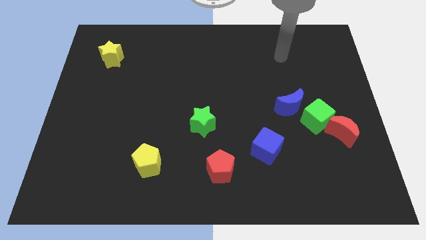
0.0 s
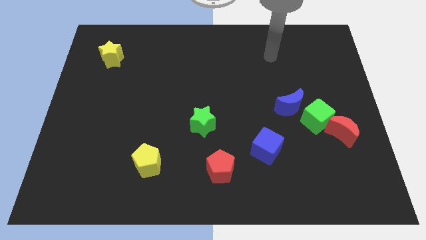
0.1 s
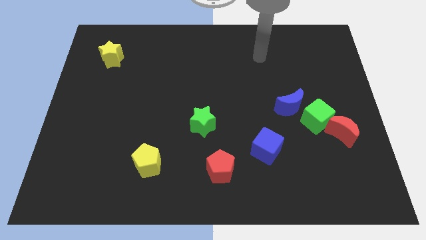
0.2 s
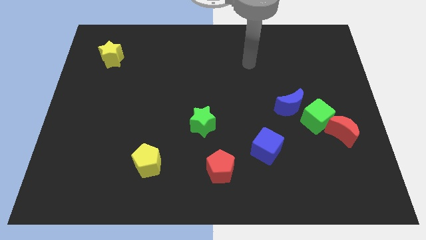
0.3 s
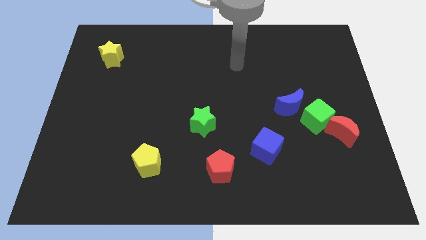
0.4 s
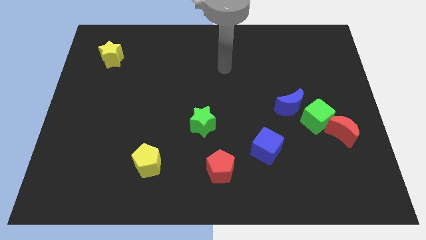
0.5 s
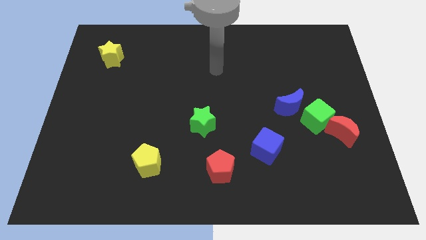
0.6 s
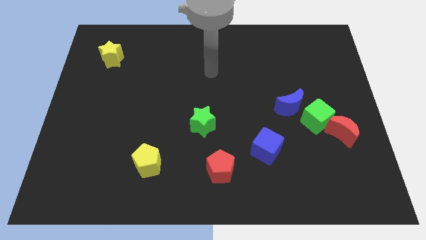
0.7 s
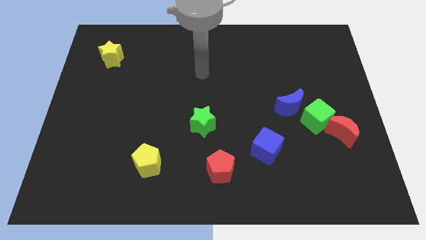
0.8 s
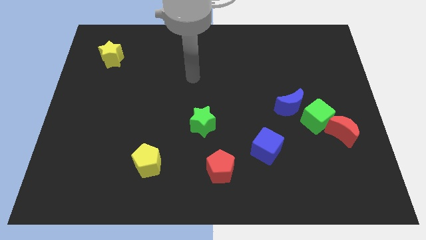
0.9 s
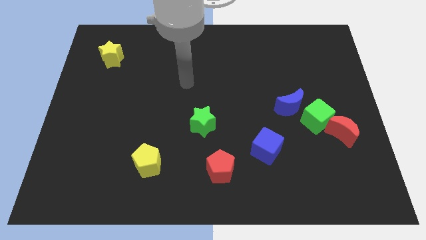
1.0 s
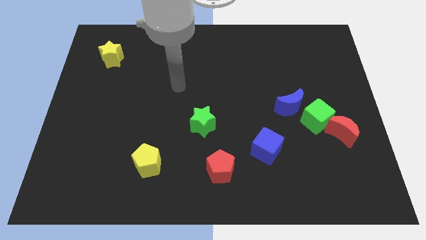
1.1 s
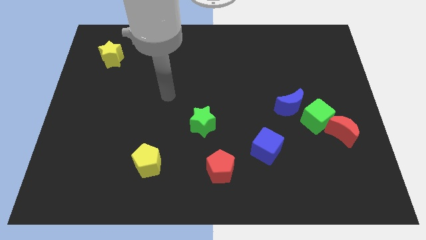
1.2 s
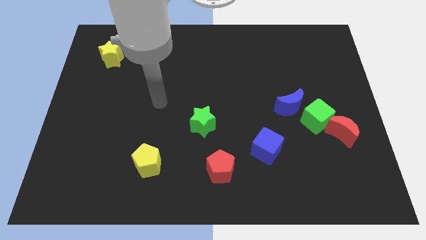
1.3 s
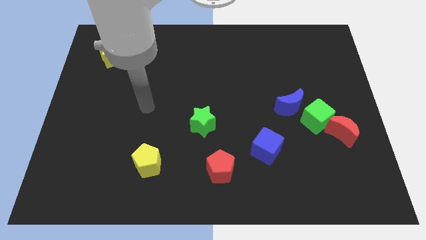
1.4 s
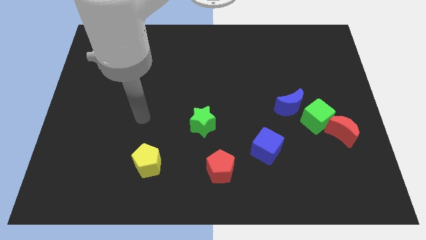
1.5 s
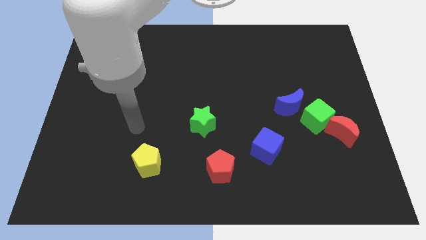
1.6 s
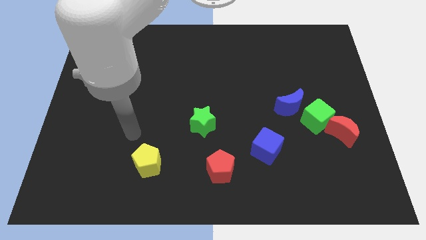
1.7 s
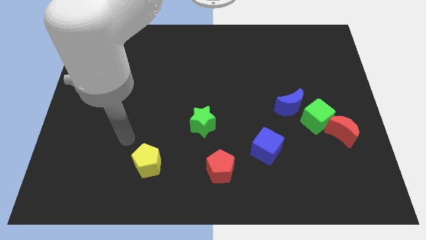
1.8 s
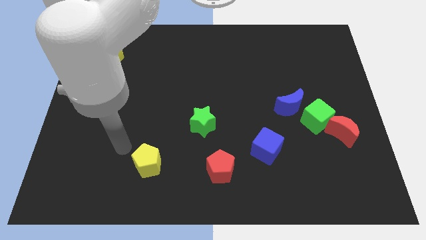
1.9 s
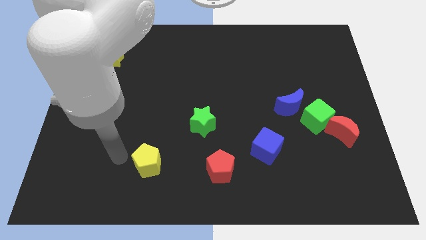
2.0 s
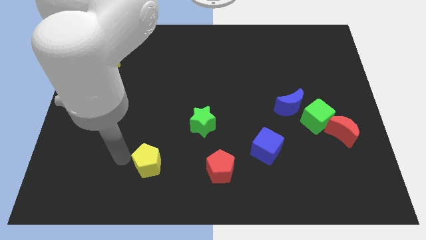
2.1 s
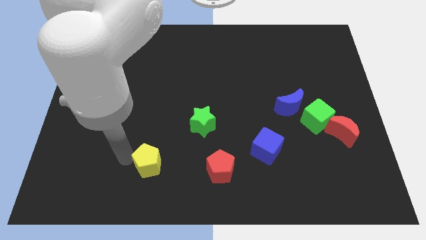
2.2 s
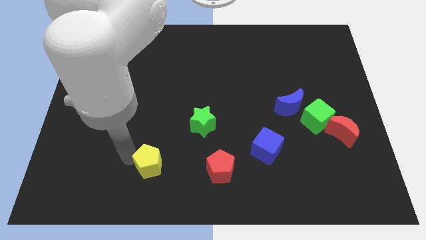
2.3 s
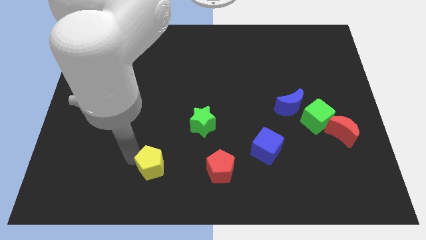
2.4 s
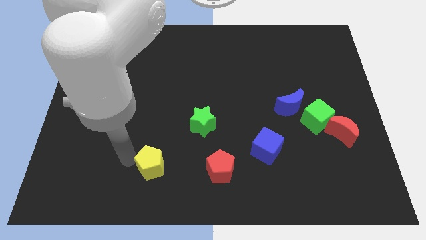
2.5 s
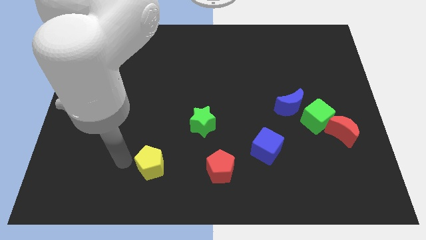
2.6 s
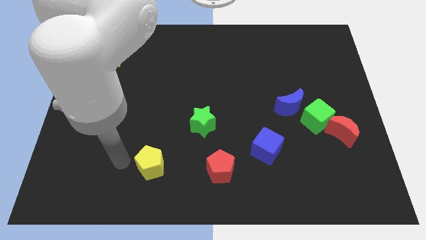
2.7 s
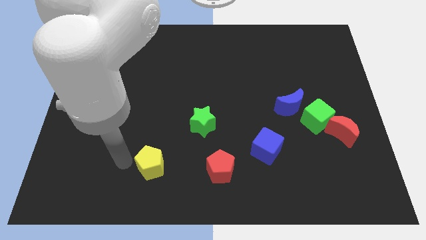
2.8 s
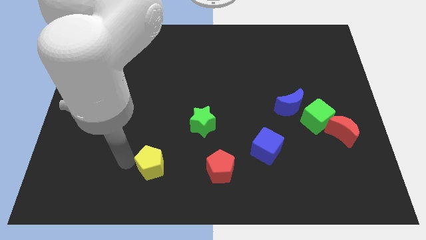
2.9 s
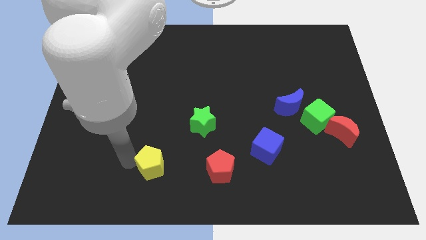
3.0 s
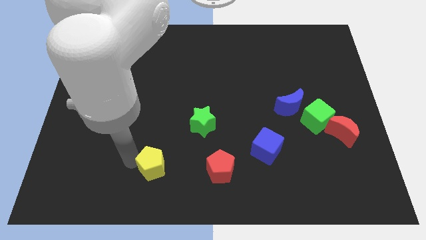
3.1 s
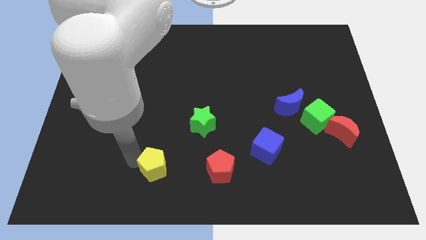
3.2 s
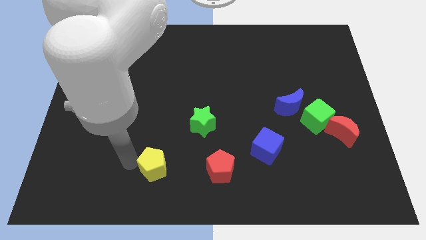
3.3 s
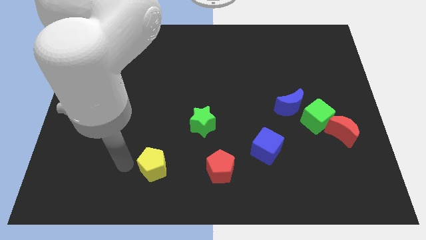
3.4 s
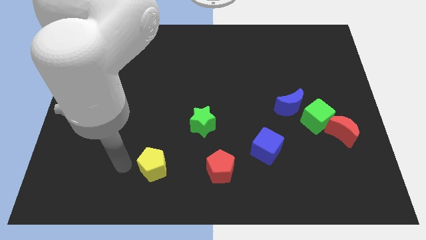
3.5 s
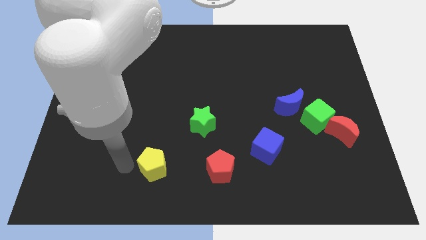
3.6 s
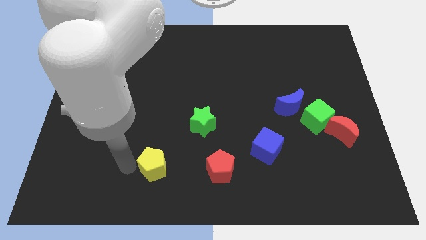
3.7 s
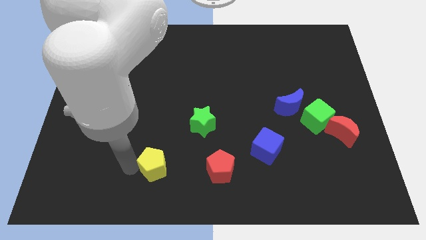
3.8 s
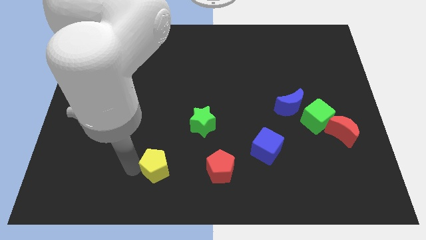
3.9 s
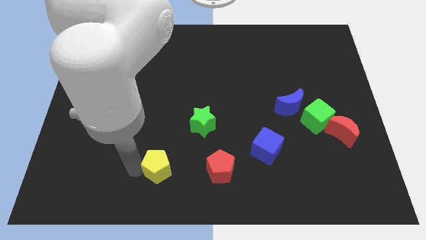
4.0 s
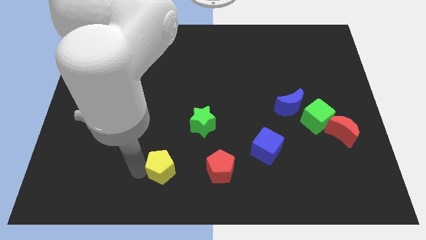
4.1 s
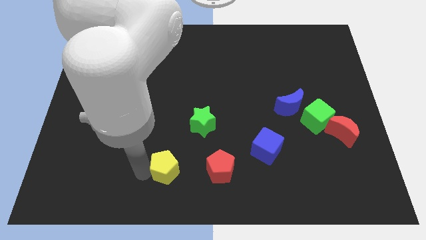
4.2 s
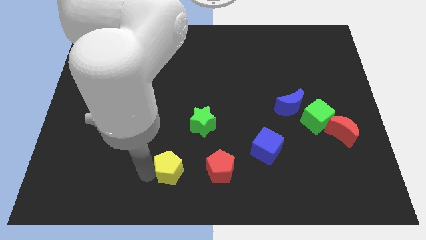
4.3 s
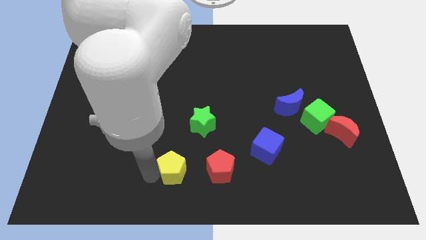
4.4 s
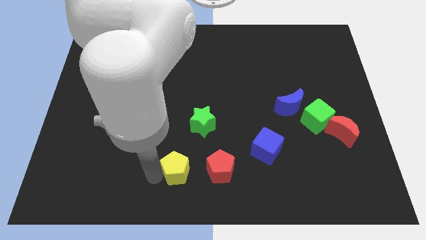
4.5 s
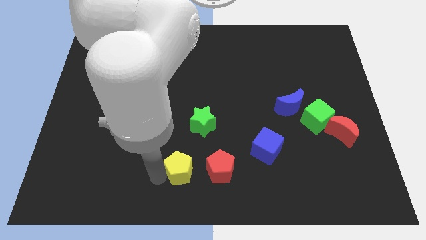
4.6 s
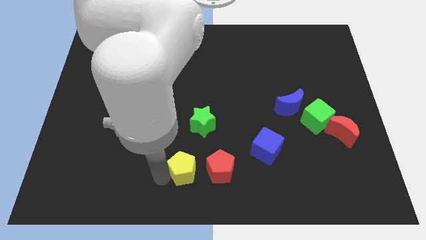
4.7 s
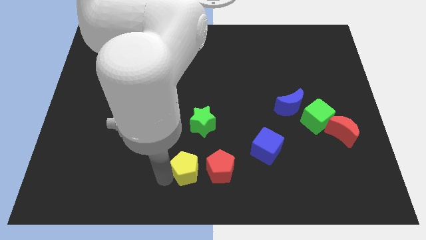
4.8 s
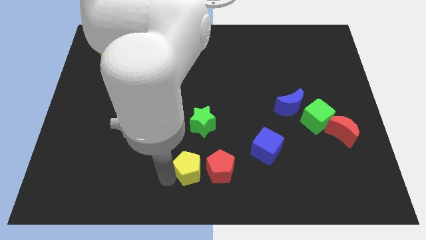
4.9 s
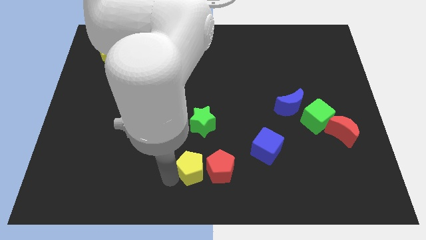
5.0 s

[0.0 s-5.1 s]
slide the yellow pentagon towards the red pentagon

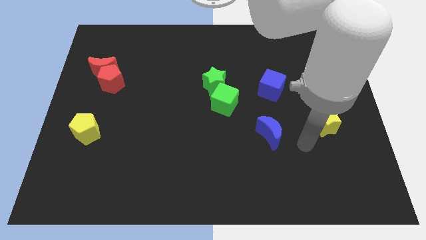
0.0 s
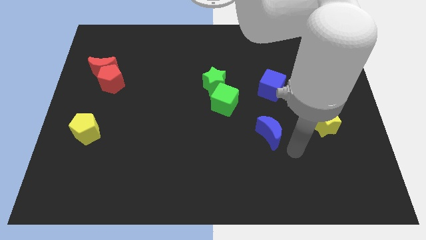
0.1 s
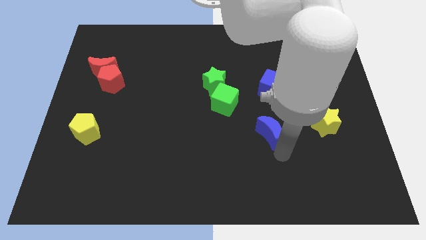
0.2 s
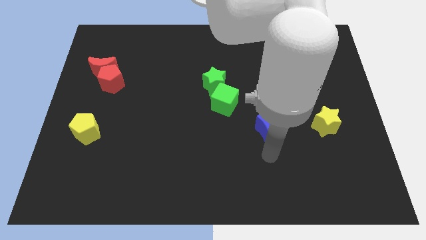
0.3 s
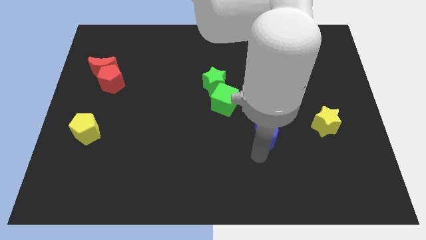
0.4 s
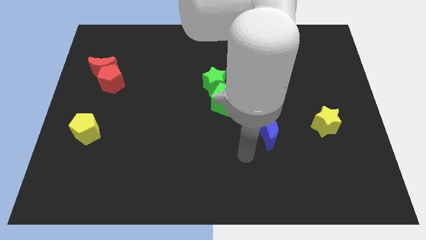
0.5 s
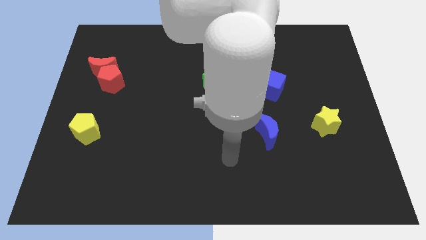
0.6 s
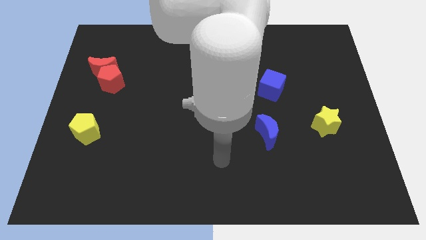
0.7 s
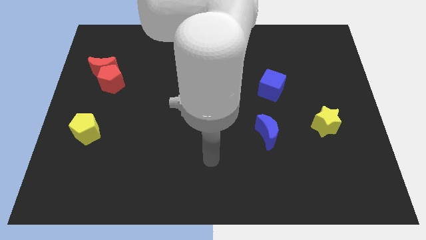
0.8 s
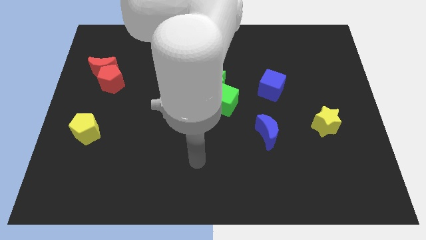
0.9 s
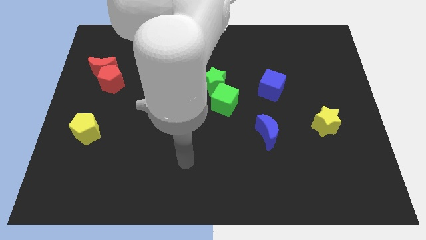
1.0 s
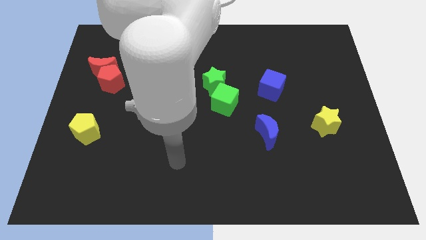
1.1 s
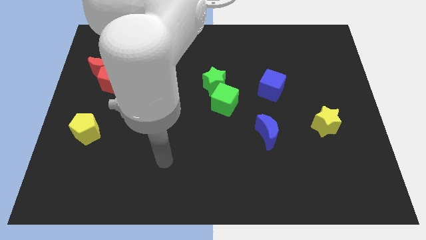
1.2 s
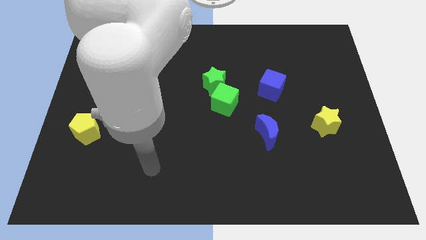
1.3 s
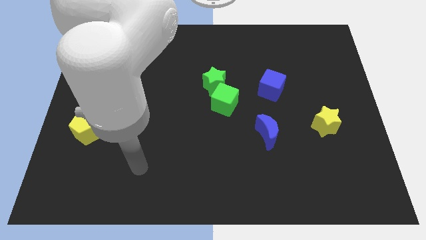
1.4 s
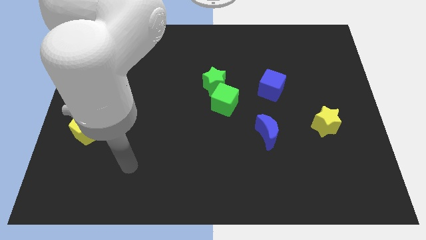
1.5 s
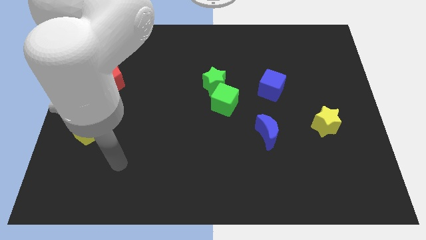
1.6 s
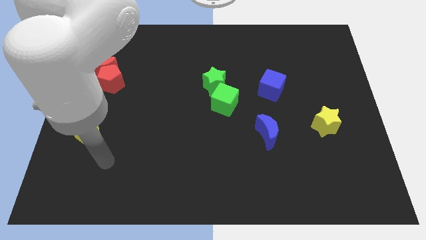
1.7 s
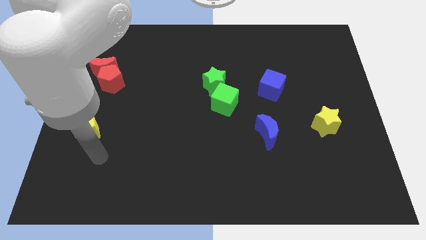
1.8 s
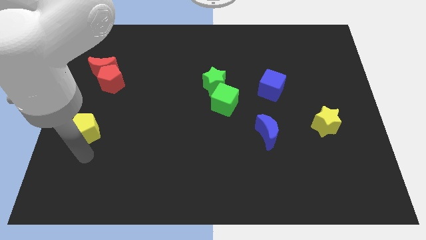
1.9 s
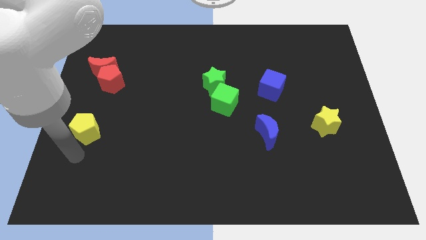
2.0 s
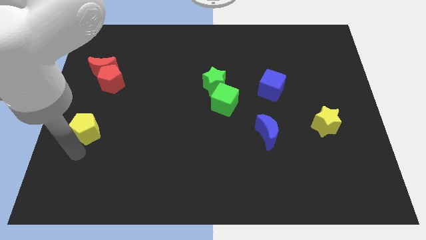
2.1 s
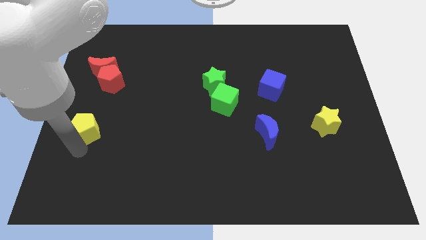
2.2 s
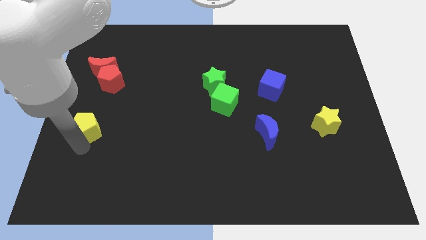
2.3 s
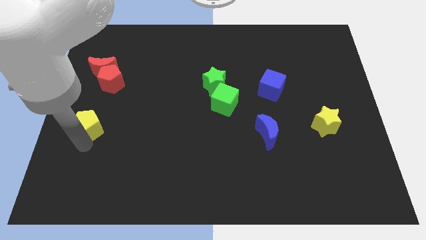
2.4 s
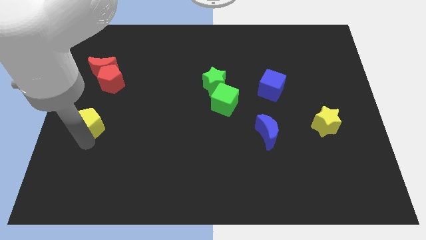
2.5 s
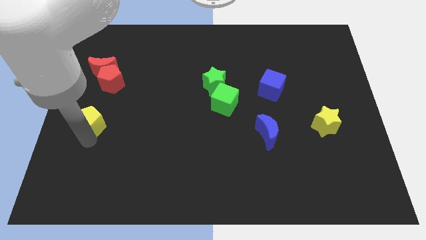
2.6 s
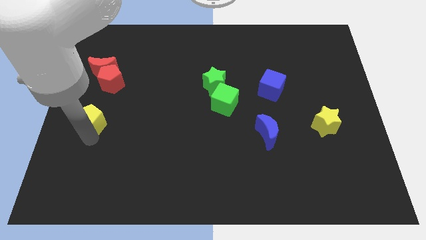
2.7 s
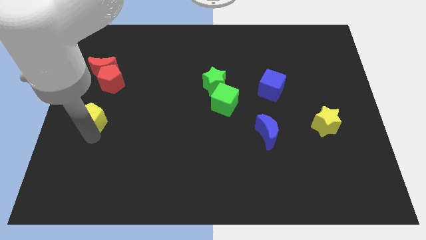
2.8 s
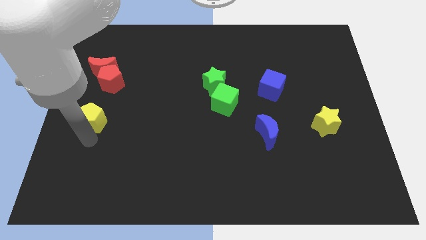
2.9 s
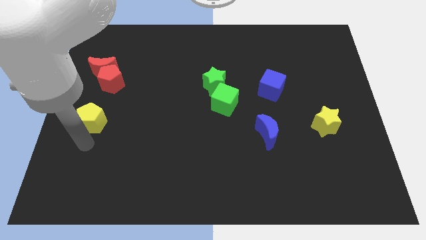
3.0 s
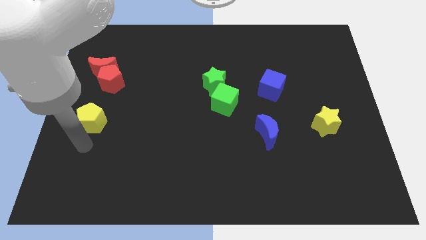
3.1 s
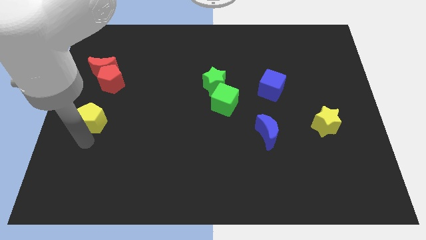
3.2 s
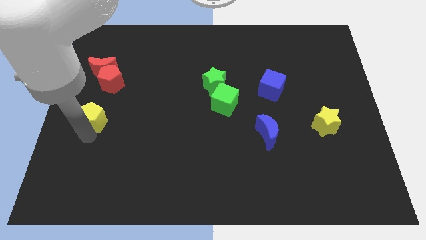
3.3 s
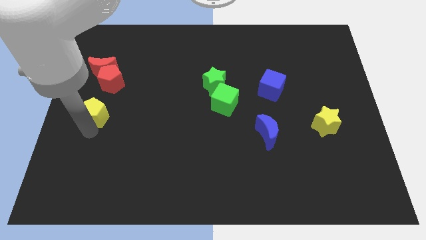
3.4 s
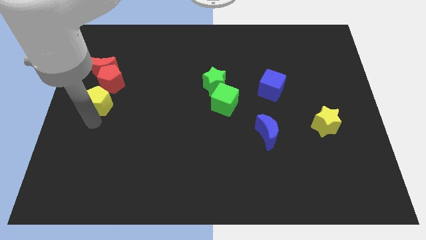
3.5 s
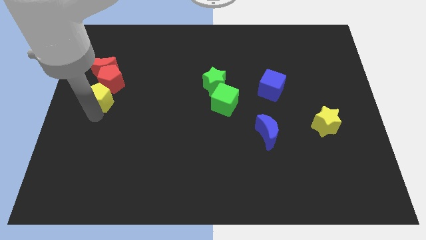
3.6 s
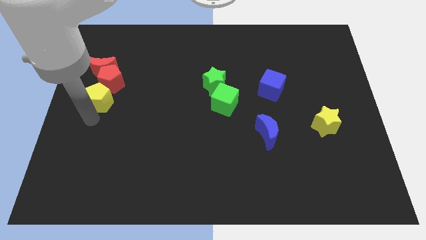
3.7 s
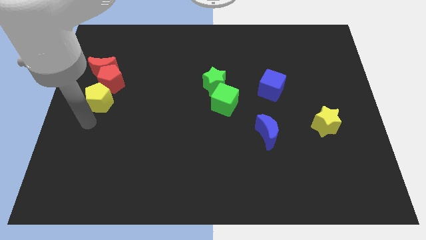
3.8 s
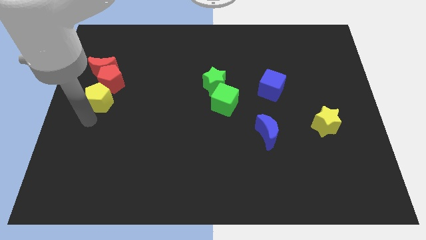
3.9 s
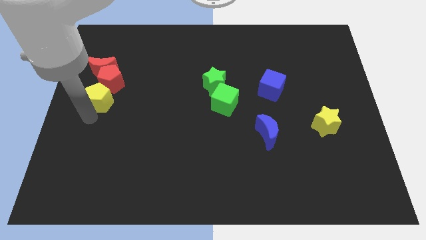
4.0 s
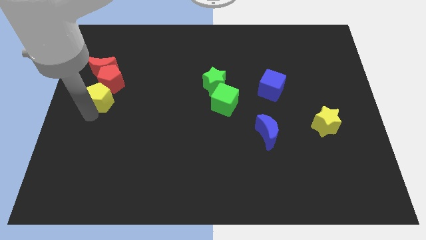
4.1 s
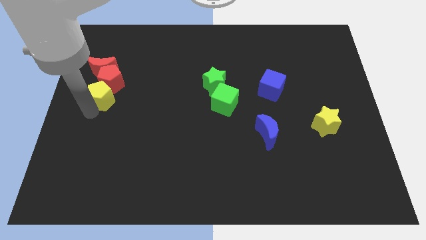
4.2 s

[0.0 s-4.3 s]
push the yellow pentagon close to the red pentagon
